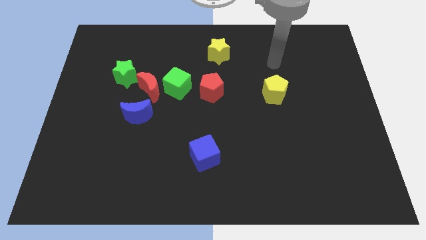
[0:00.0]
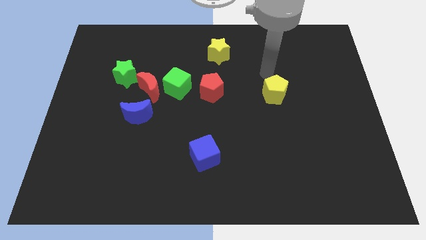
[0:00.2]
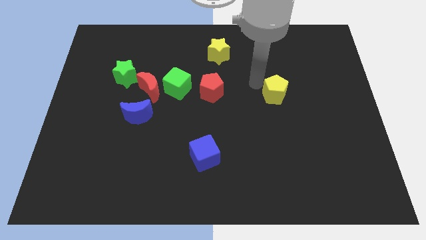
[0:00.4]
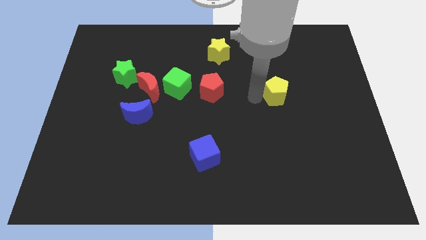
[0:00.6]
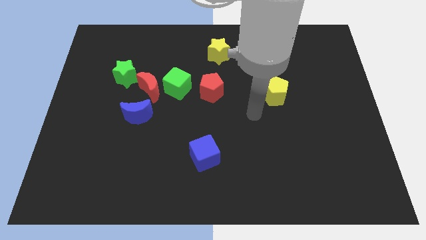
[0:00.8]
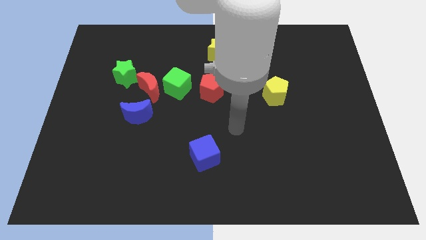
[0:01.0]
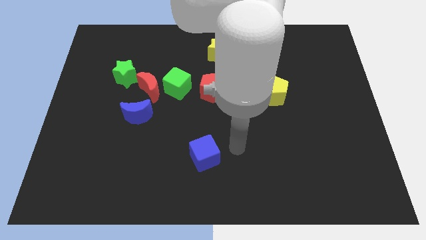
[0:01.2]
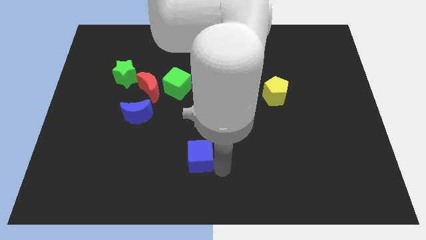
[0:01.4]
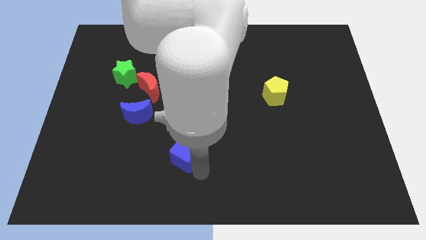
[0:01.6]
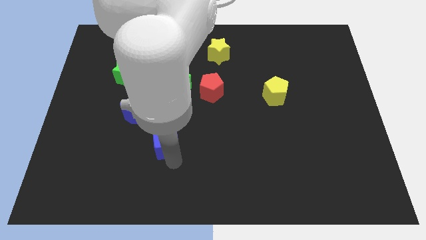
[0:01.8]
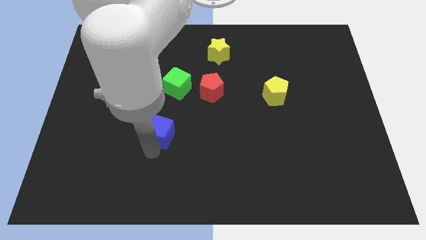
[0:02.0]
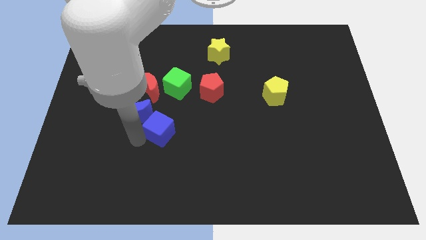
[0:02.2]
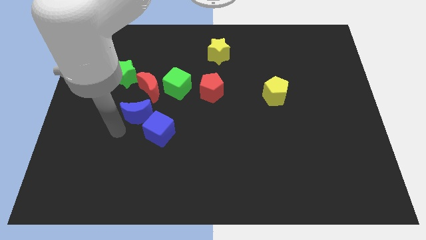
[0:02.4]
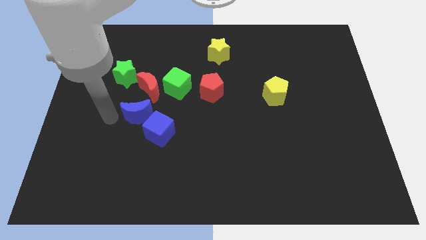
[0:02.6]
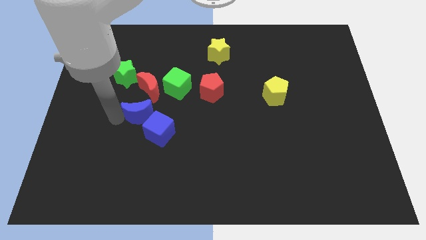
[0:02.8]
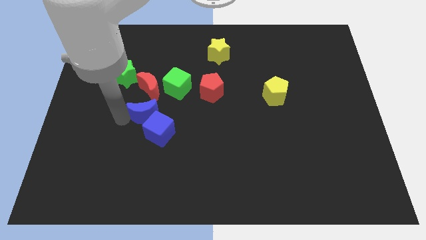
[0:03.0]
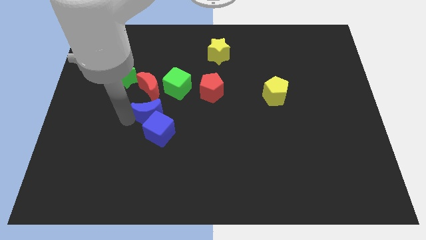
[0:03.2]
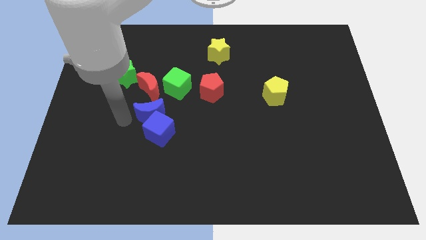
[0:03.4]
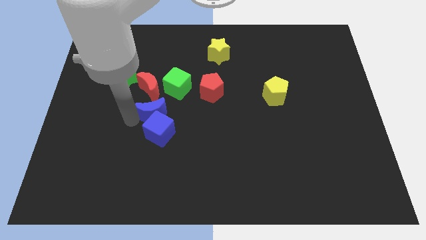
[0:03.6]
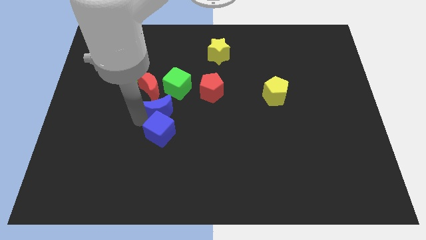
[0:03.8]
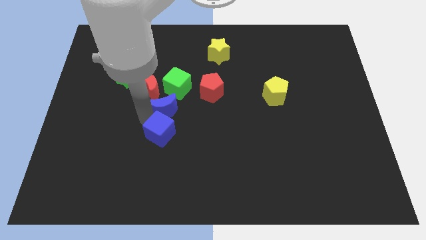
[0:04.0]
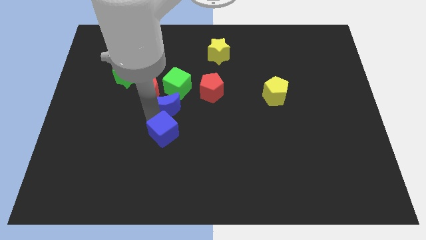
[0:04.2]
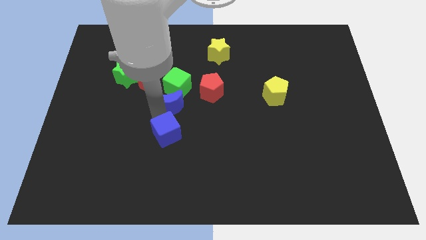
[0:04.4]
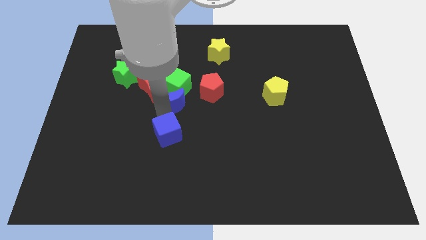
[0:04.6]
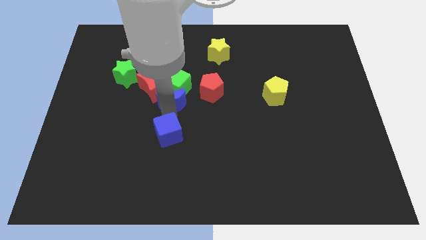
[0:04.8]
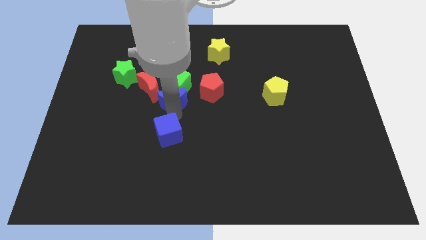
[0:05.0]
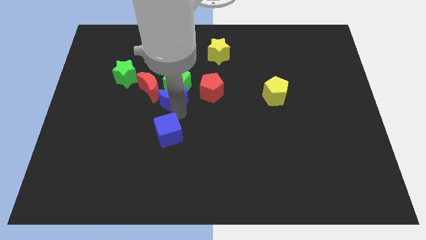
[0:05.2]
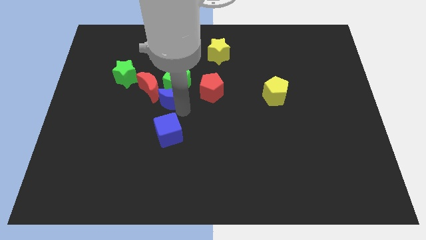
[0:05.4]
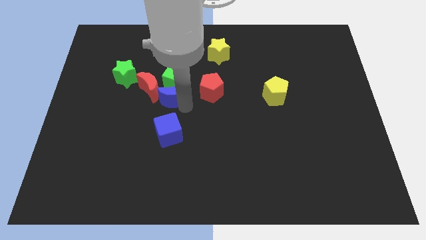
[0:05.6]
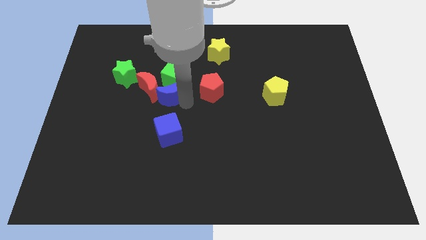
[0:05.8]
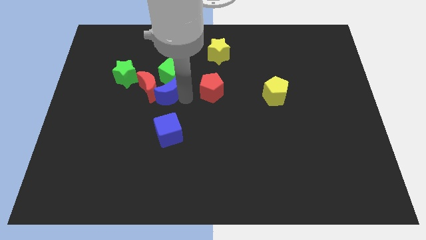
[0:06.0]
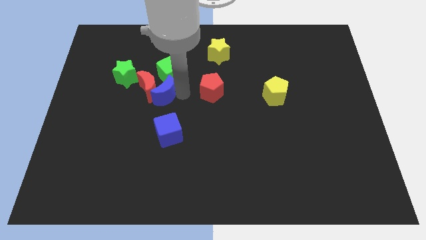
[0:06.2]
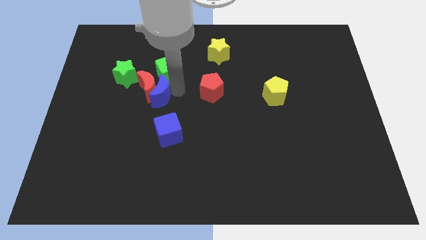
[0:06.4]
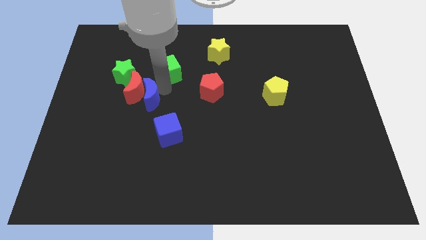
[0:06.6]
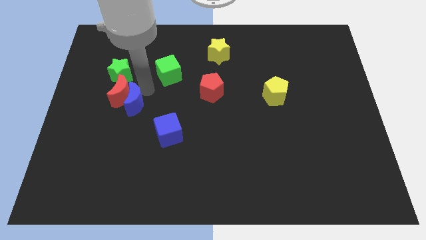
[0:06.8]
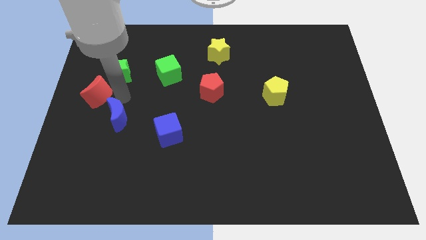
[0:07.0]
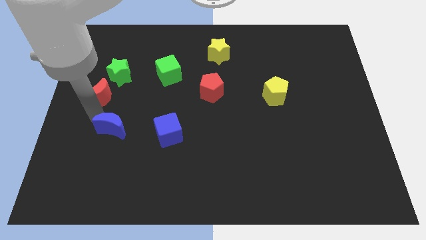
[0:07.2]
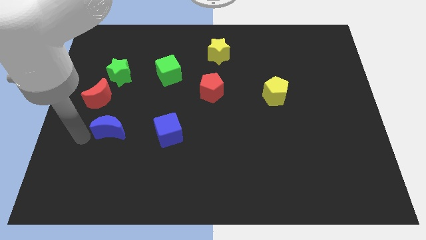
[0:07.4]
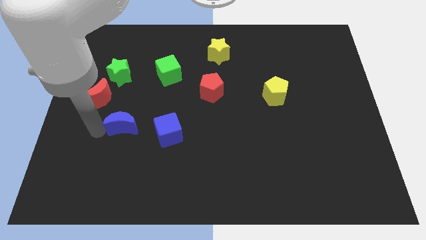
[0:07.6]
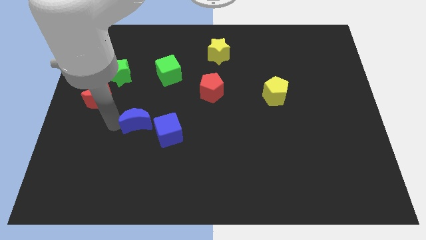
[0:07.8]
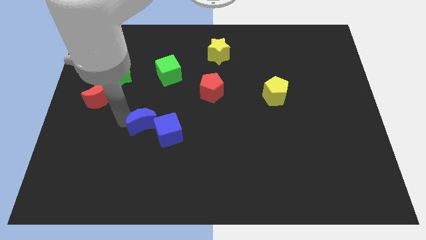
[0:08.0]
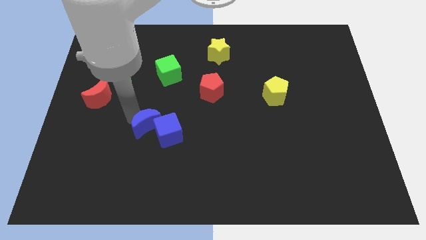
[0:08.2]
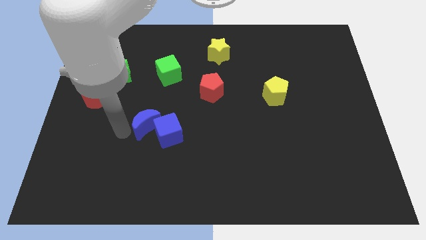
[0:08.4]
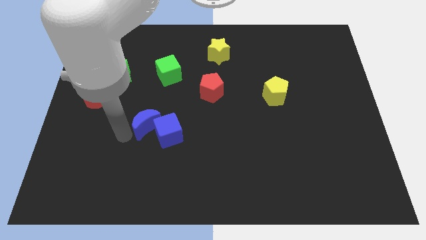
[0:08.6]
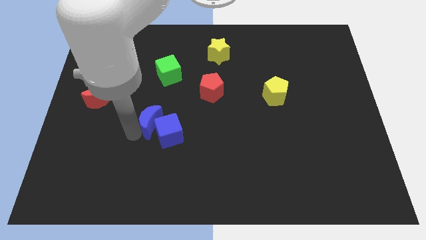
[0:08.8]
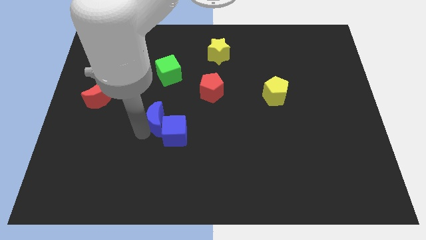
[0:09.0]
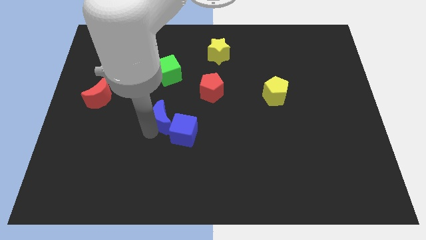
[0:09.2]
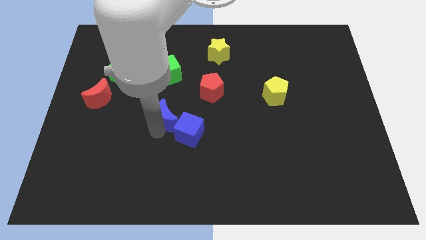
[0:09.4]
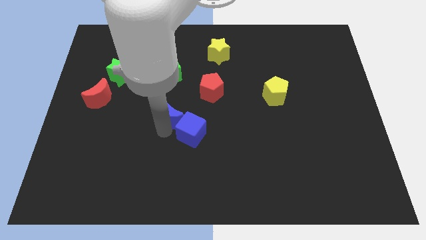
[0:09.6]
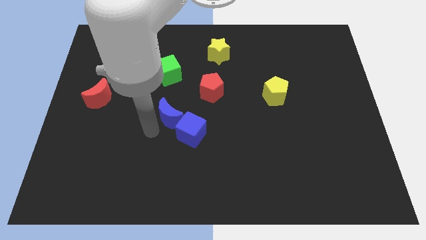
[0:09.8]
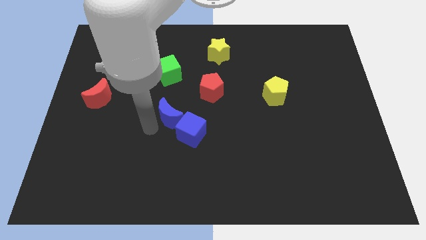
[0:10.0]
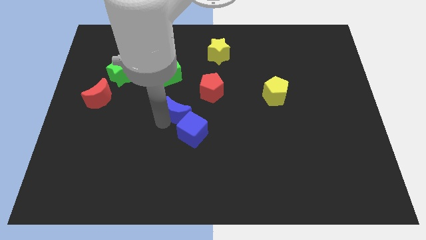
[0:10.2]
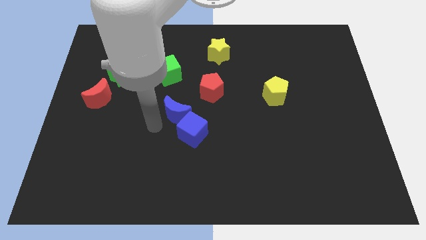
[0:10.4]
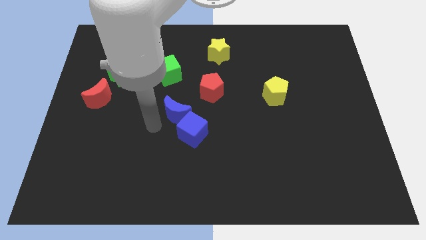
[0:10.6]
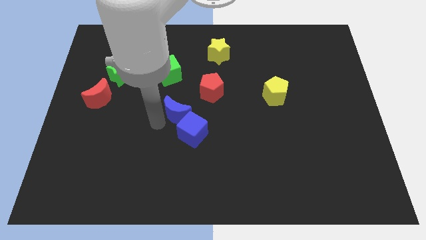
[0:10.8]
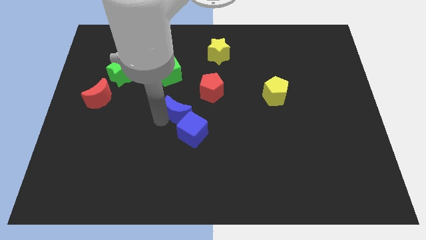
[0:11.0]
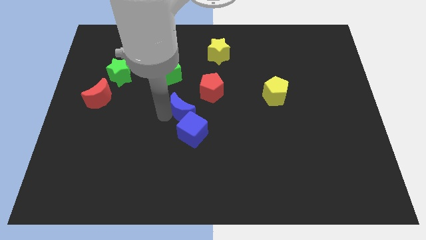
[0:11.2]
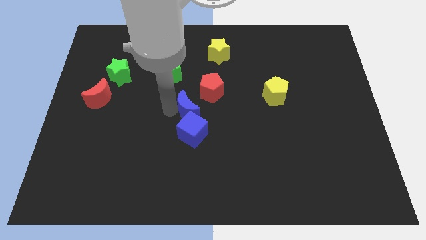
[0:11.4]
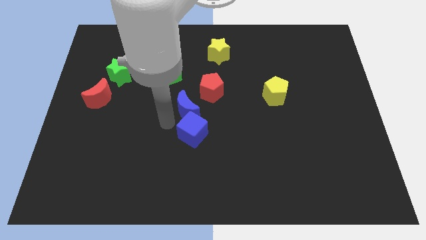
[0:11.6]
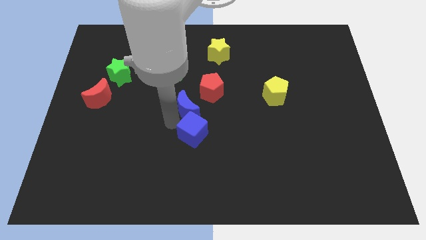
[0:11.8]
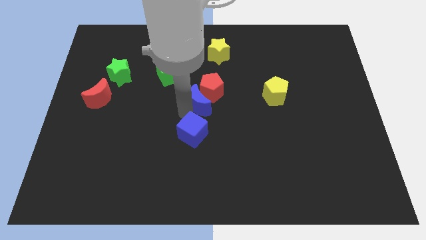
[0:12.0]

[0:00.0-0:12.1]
put the blue moon close to the red pentagon

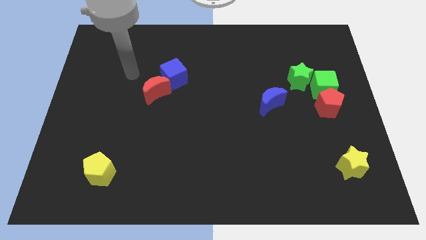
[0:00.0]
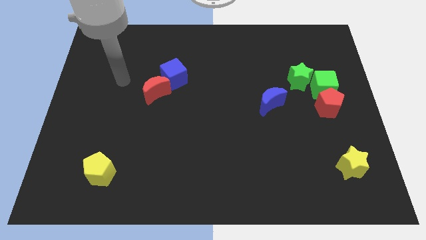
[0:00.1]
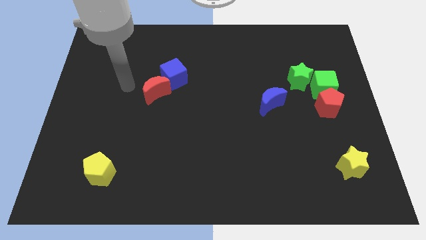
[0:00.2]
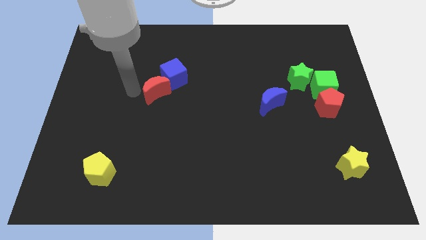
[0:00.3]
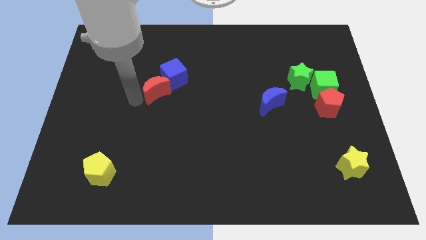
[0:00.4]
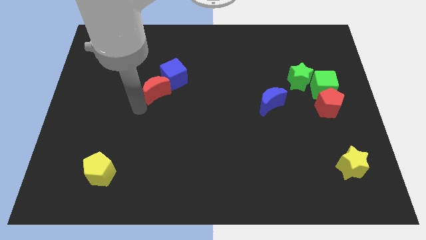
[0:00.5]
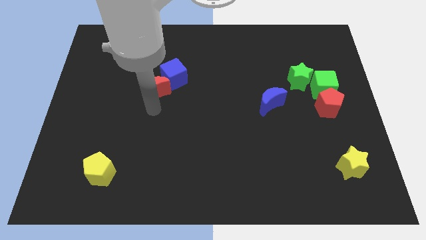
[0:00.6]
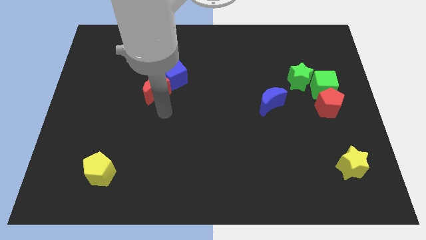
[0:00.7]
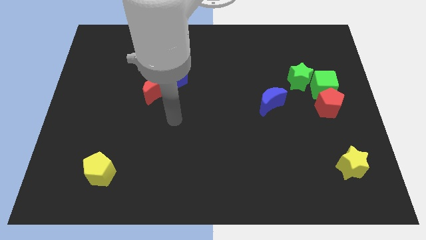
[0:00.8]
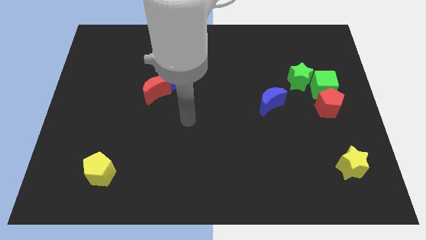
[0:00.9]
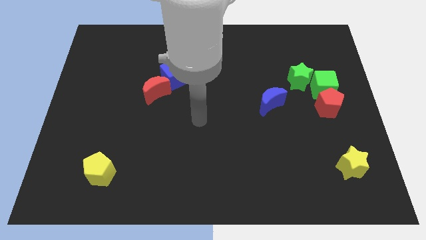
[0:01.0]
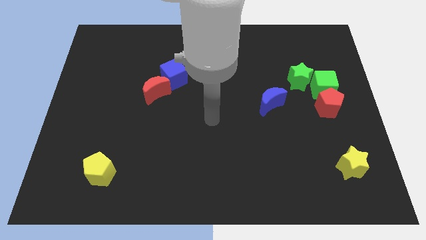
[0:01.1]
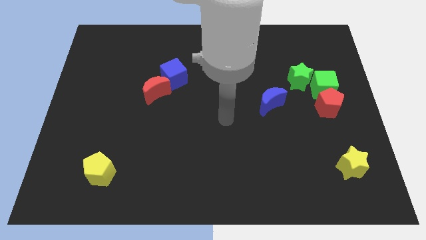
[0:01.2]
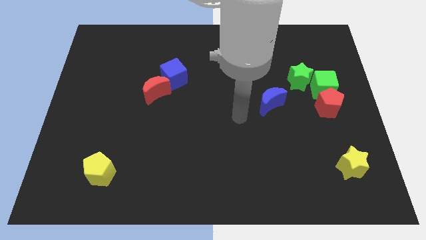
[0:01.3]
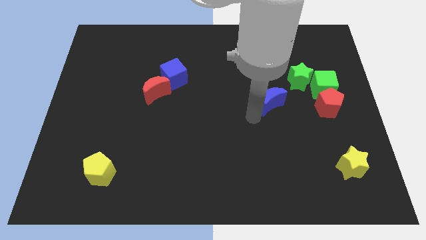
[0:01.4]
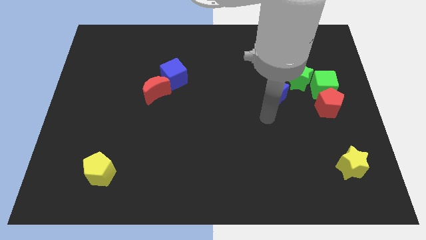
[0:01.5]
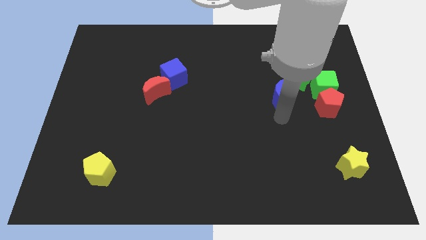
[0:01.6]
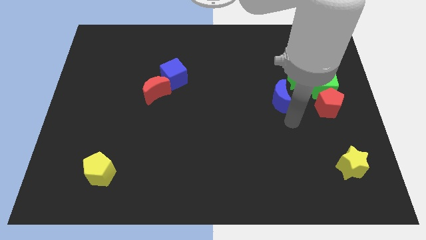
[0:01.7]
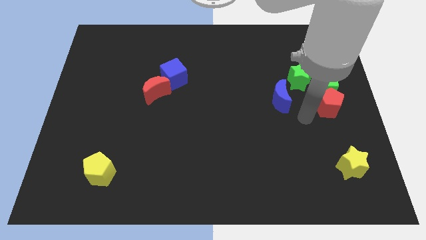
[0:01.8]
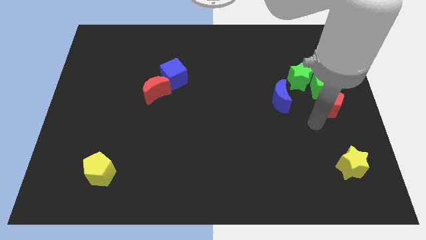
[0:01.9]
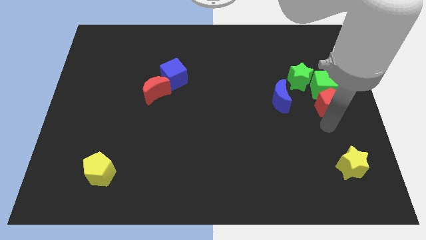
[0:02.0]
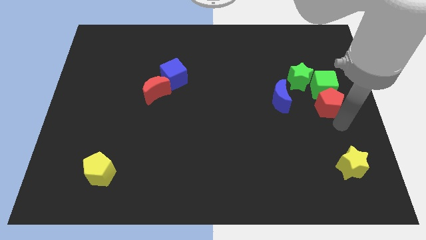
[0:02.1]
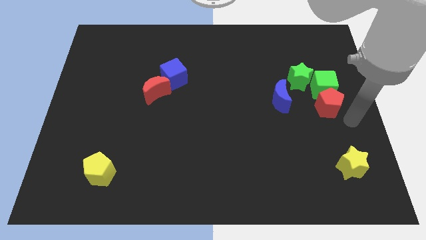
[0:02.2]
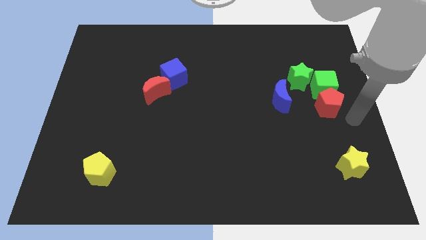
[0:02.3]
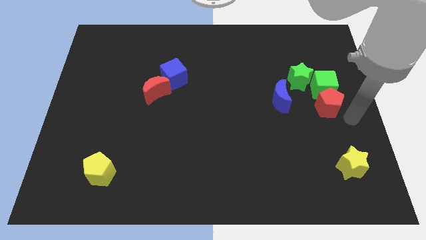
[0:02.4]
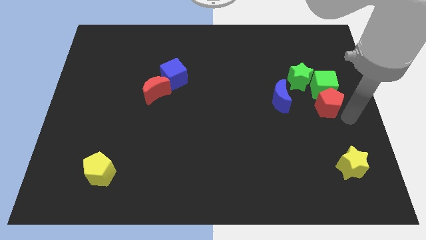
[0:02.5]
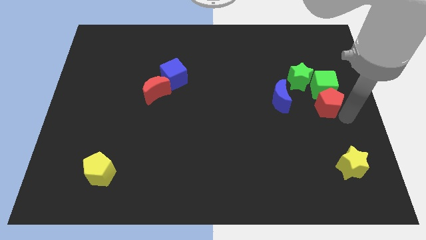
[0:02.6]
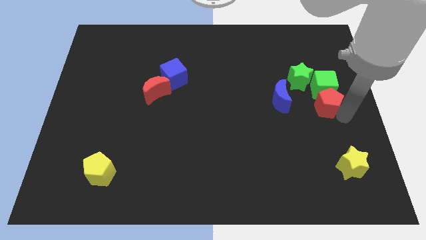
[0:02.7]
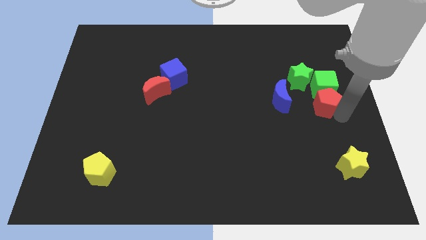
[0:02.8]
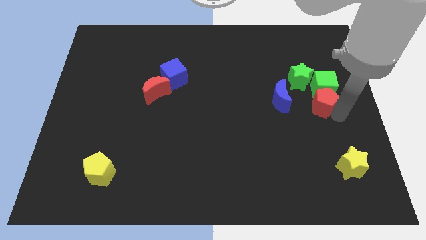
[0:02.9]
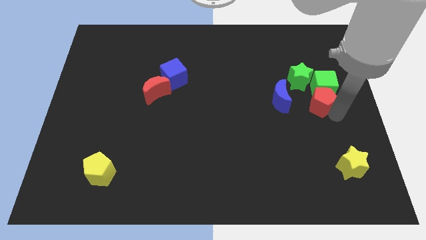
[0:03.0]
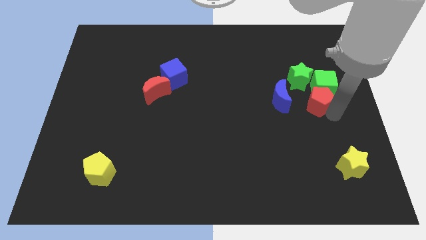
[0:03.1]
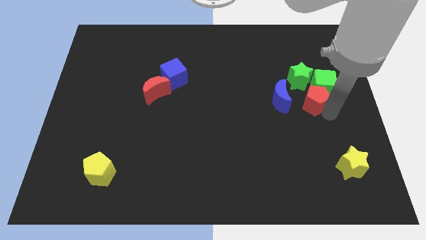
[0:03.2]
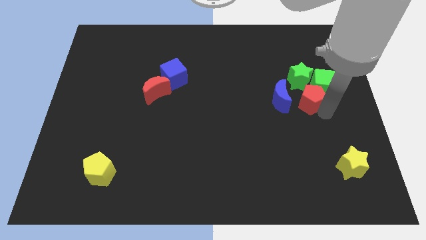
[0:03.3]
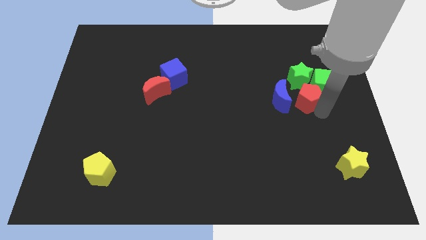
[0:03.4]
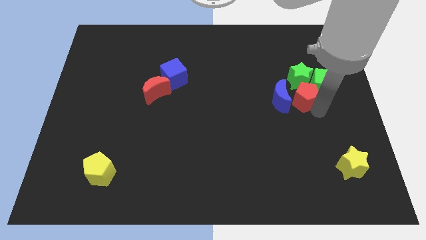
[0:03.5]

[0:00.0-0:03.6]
move the red pentagon to the green star
